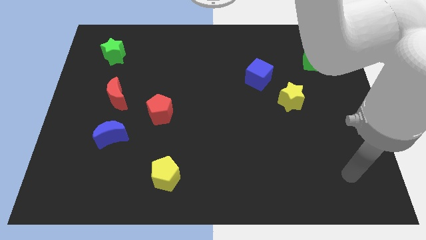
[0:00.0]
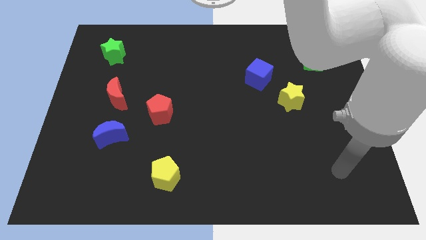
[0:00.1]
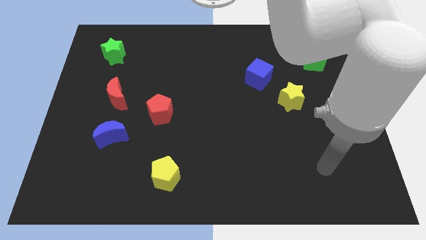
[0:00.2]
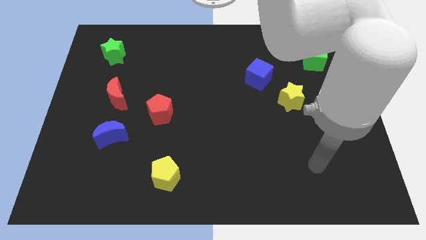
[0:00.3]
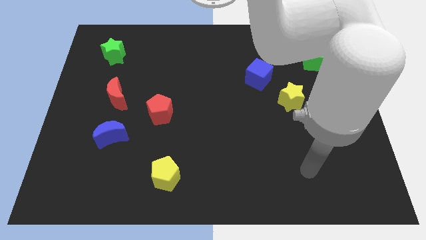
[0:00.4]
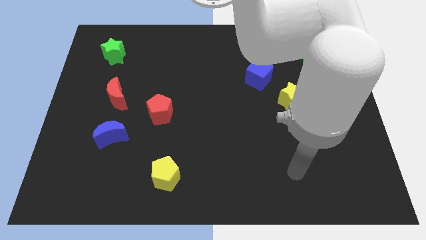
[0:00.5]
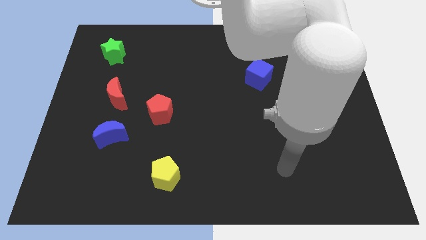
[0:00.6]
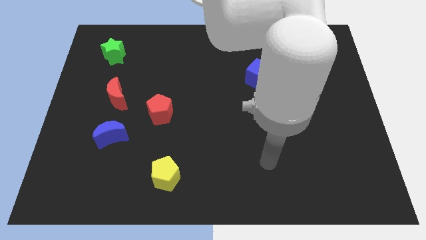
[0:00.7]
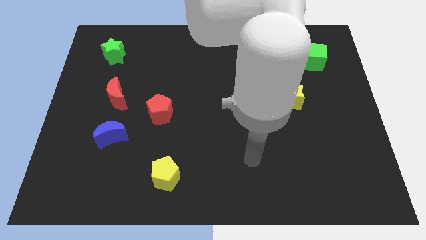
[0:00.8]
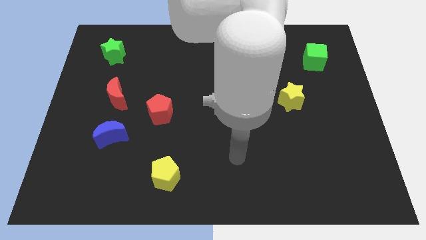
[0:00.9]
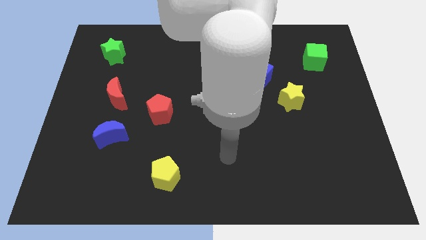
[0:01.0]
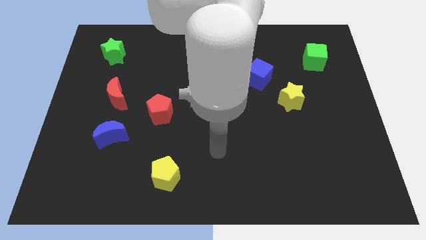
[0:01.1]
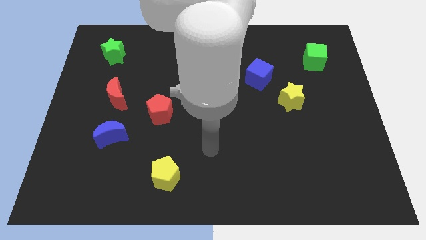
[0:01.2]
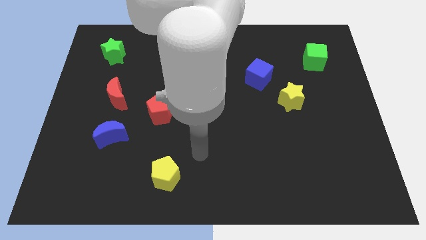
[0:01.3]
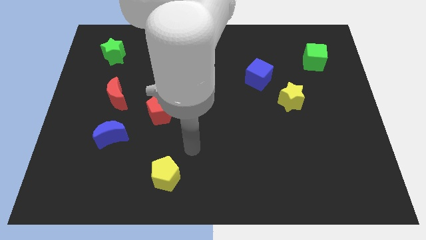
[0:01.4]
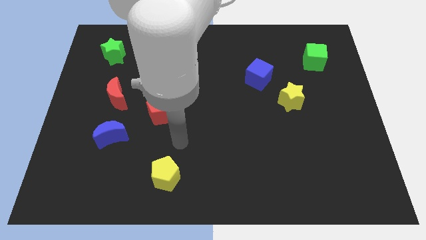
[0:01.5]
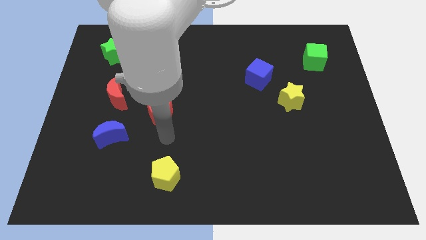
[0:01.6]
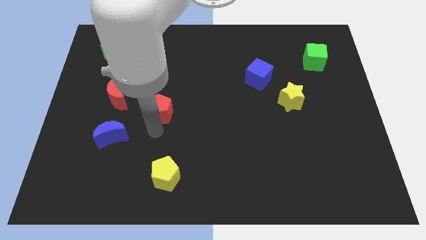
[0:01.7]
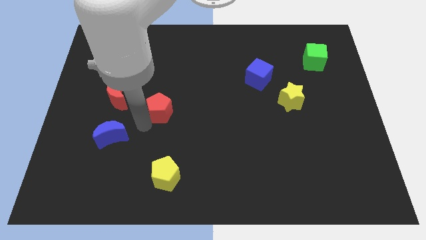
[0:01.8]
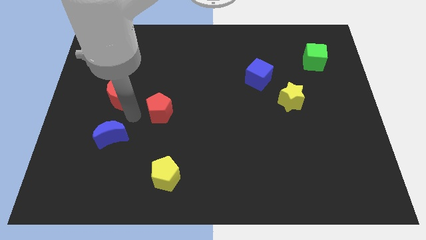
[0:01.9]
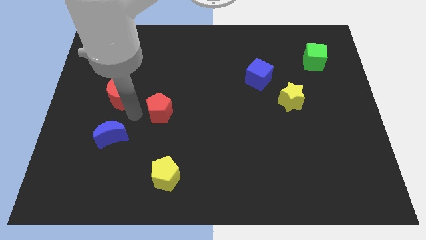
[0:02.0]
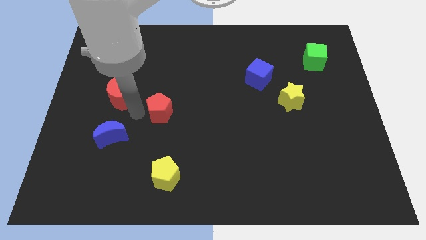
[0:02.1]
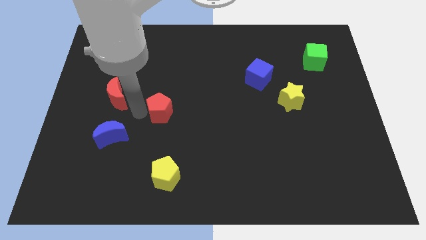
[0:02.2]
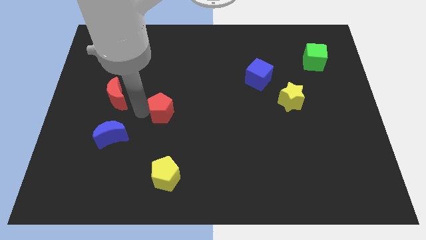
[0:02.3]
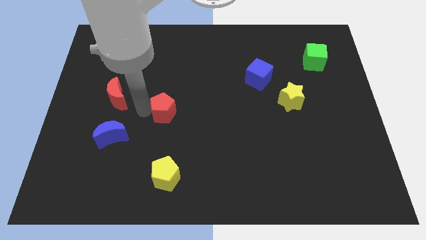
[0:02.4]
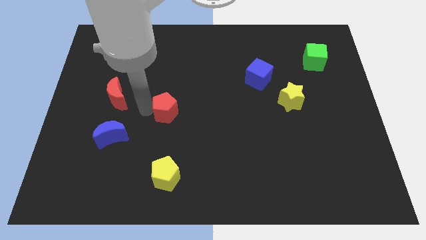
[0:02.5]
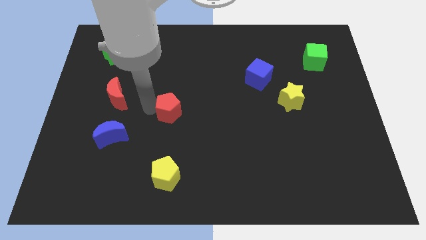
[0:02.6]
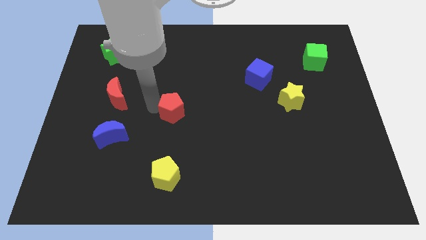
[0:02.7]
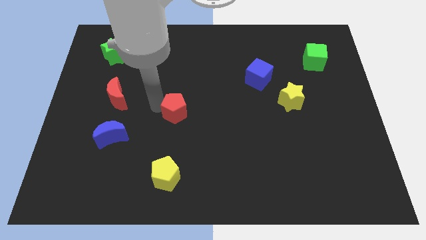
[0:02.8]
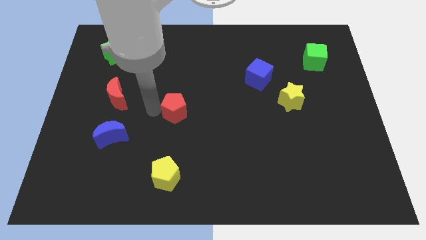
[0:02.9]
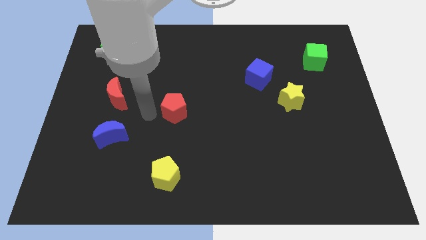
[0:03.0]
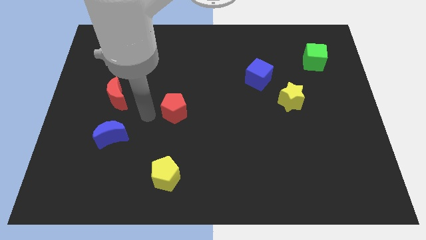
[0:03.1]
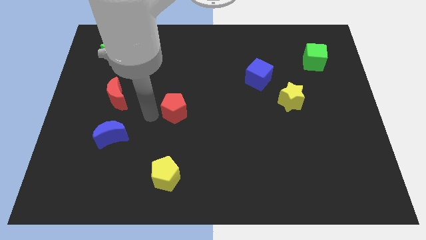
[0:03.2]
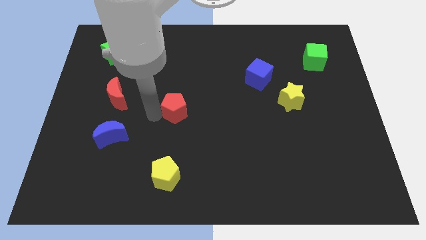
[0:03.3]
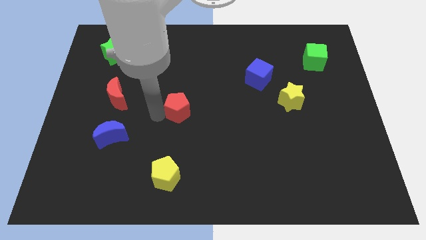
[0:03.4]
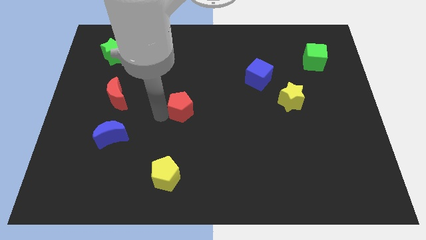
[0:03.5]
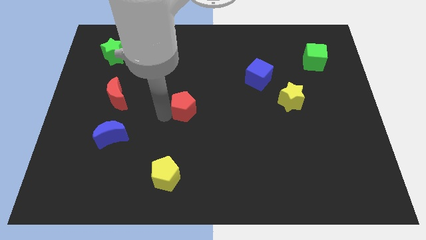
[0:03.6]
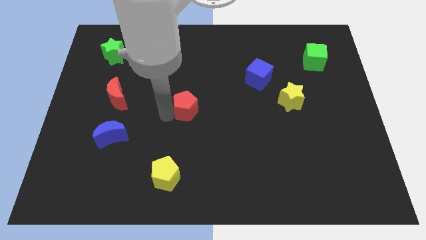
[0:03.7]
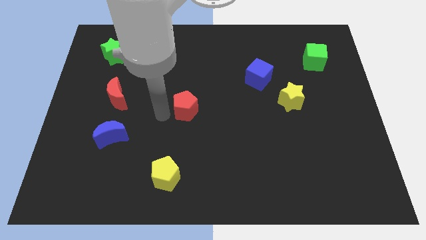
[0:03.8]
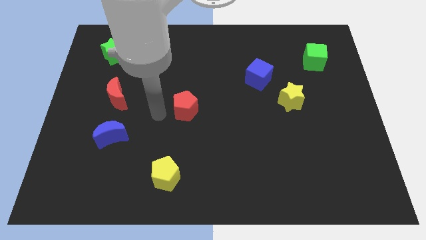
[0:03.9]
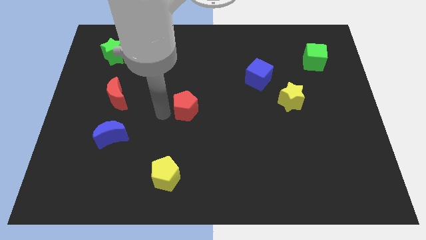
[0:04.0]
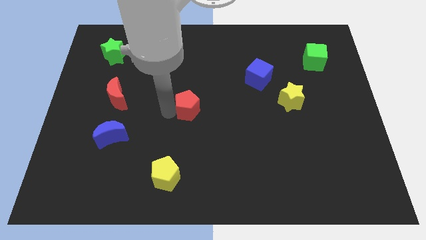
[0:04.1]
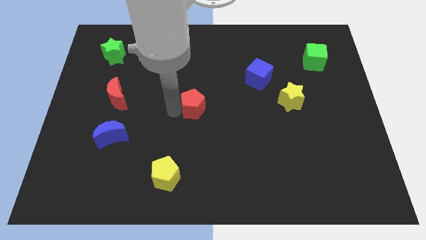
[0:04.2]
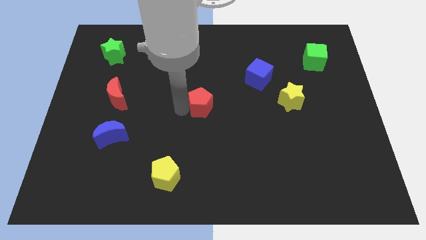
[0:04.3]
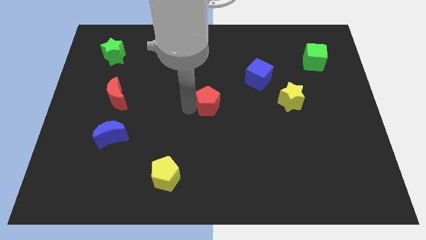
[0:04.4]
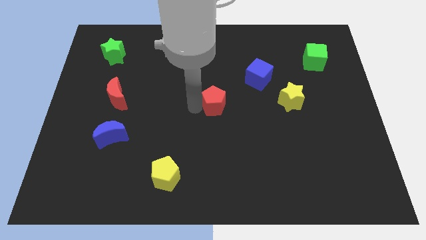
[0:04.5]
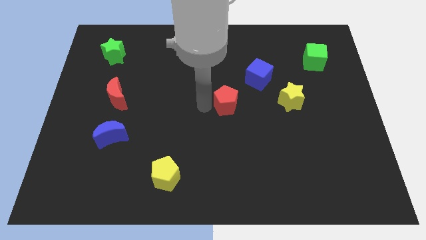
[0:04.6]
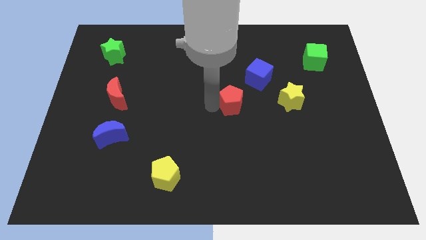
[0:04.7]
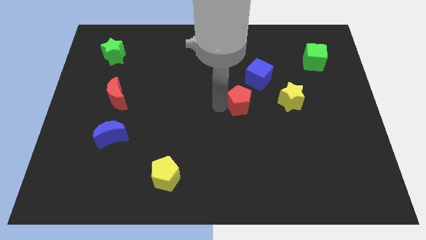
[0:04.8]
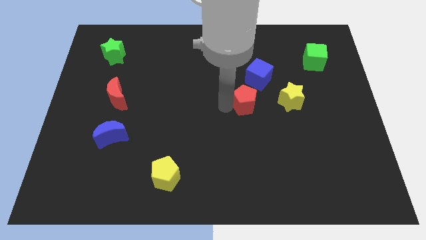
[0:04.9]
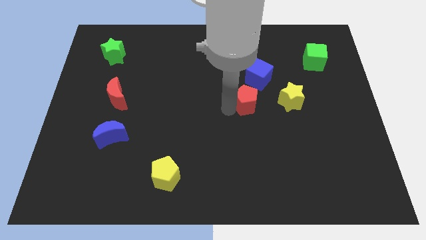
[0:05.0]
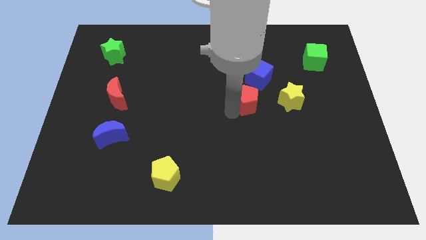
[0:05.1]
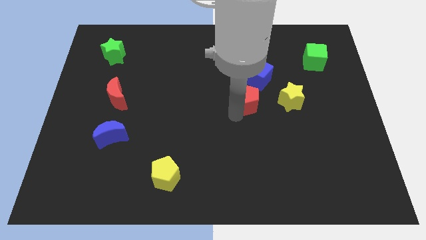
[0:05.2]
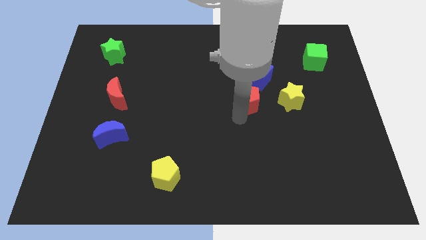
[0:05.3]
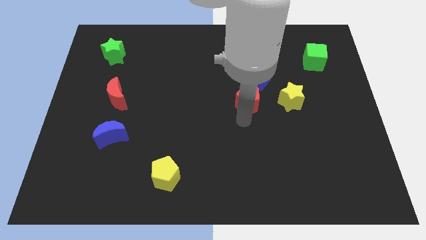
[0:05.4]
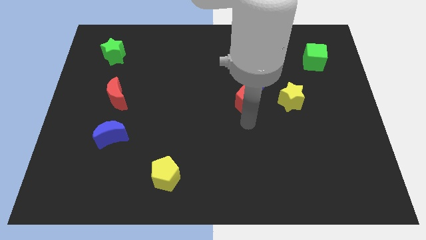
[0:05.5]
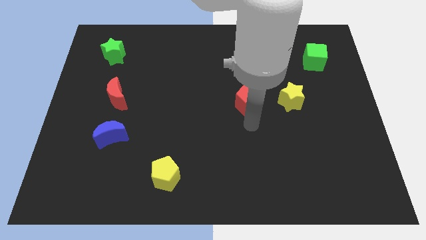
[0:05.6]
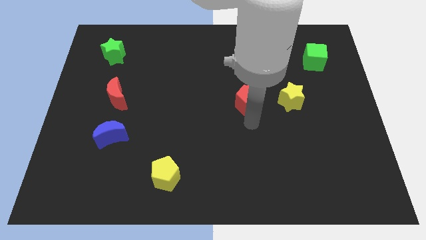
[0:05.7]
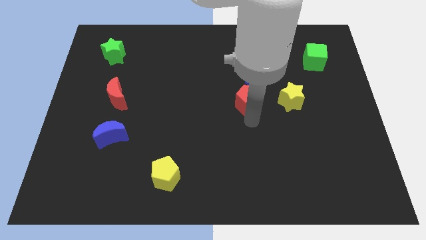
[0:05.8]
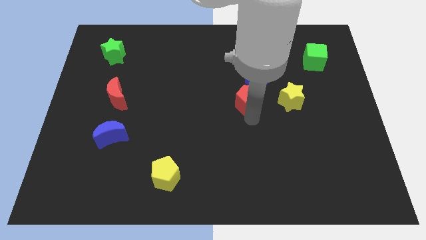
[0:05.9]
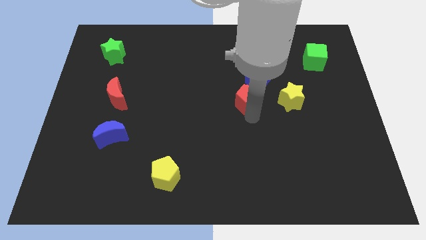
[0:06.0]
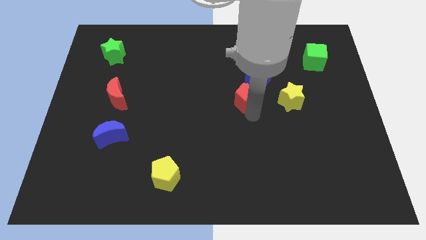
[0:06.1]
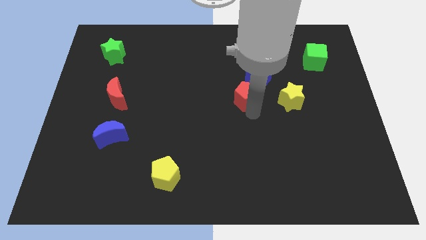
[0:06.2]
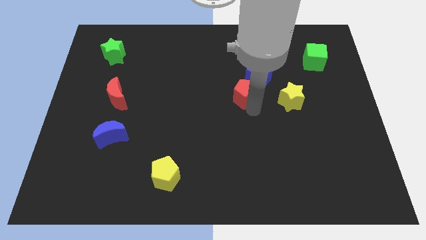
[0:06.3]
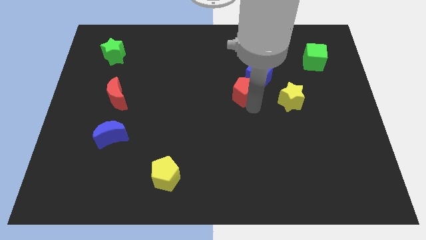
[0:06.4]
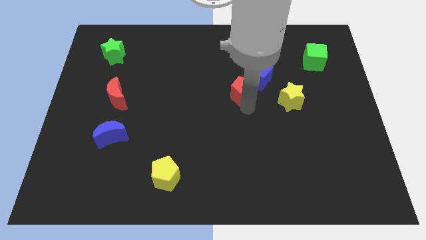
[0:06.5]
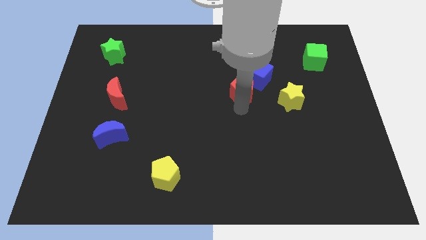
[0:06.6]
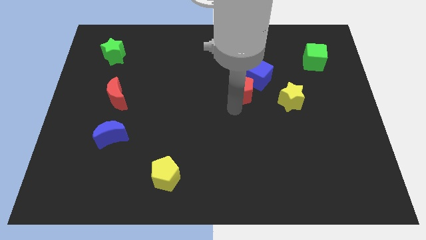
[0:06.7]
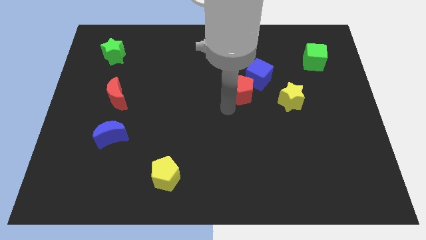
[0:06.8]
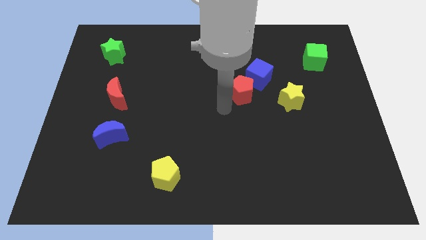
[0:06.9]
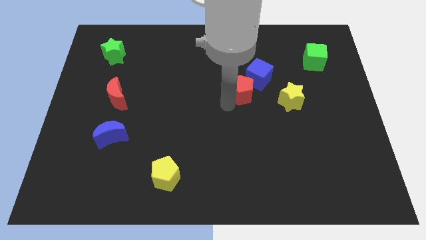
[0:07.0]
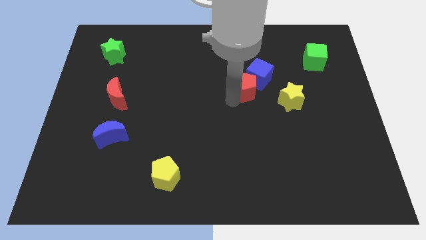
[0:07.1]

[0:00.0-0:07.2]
move the red pentagon to the blue cube

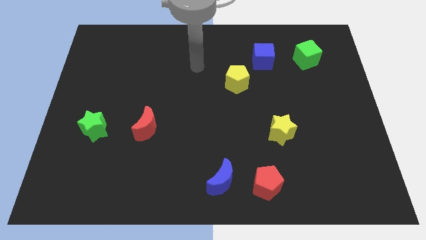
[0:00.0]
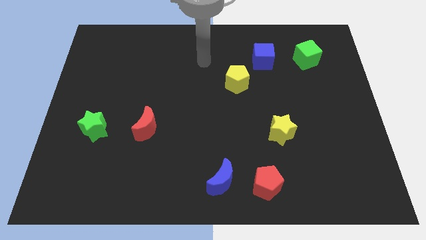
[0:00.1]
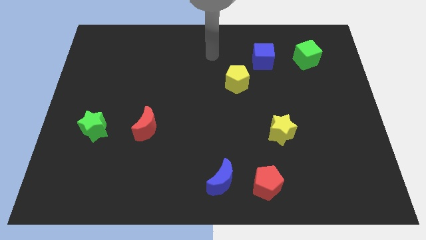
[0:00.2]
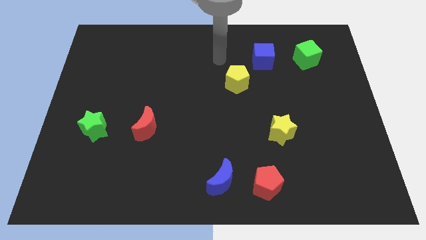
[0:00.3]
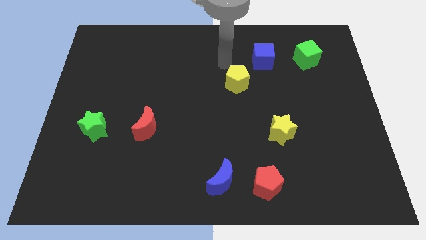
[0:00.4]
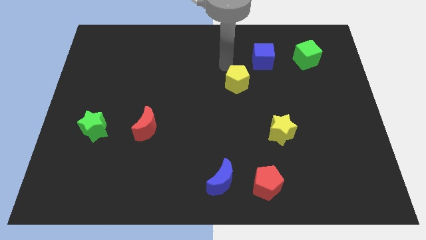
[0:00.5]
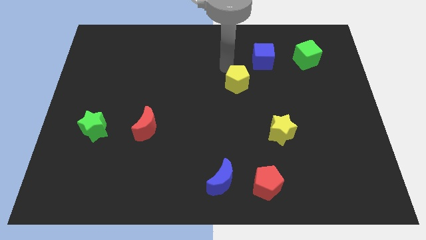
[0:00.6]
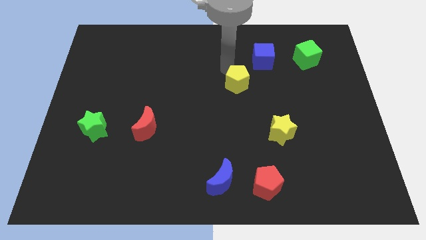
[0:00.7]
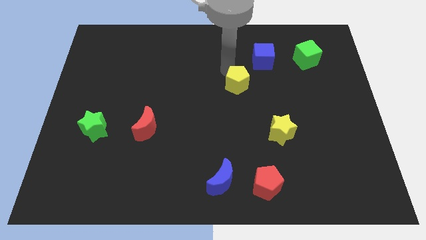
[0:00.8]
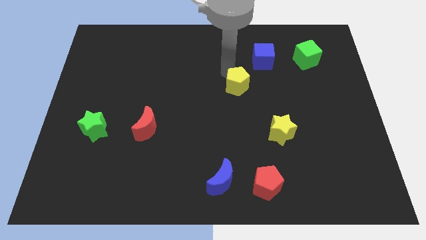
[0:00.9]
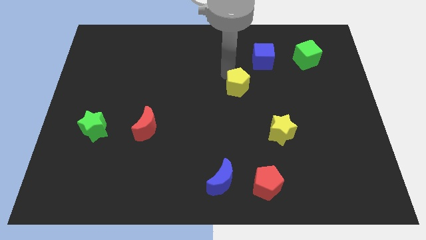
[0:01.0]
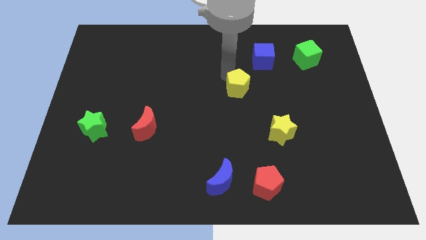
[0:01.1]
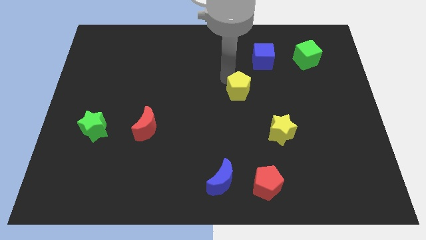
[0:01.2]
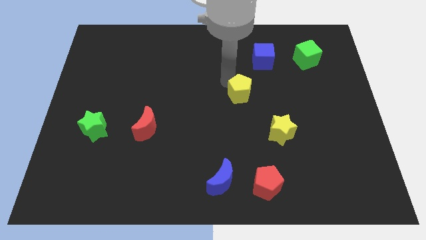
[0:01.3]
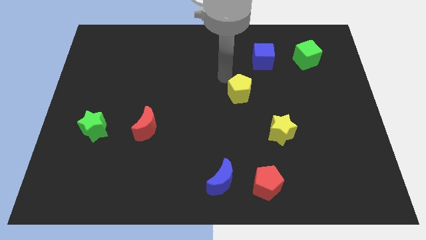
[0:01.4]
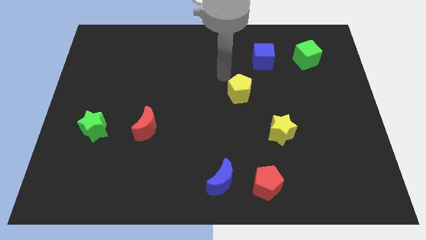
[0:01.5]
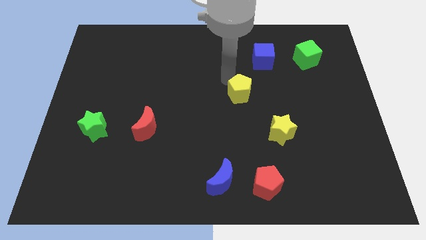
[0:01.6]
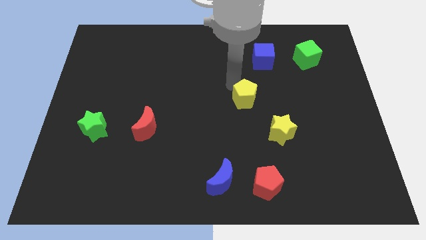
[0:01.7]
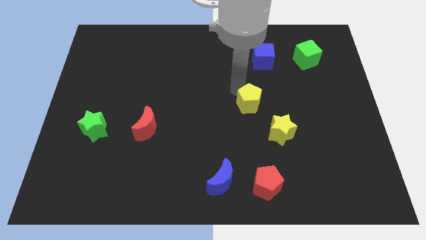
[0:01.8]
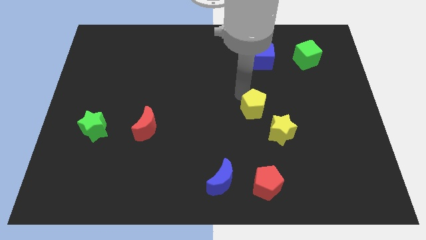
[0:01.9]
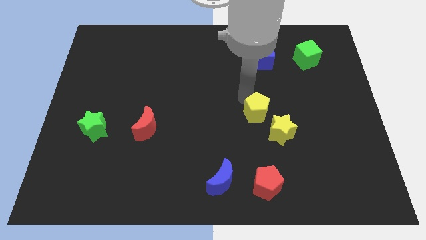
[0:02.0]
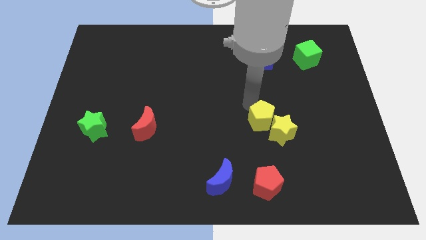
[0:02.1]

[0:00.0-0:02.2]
slide the yellow pentagon close to the yellow star
